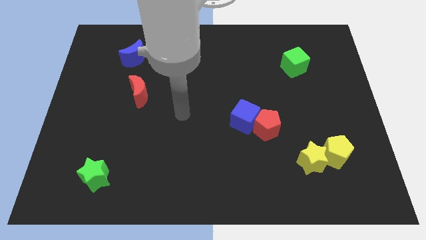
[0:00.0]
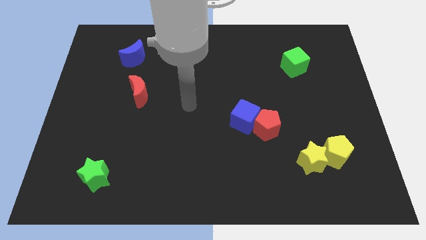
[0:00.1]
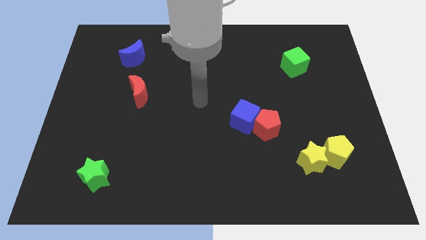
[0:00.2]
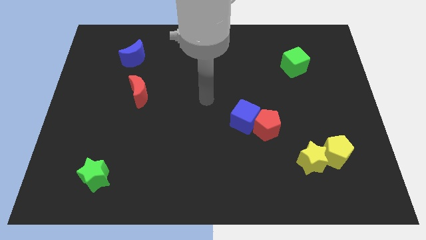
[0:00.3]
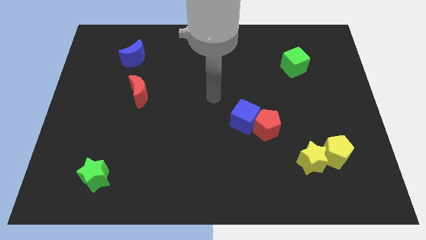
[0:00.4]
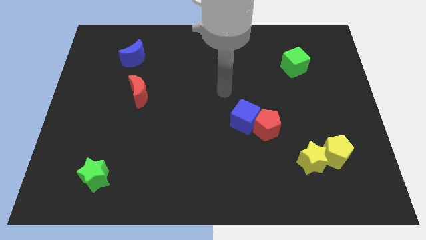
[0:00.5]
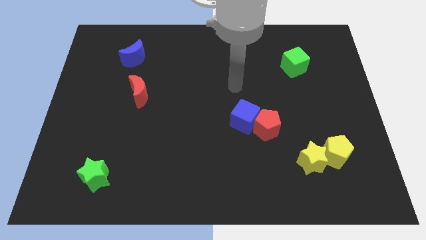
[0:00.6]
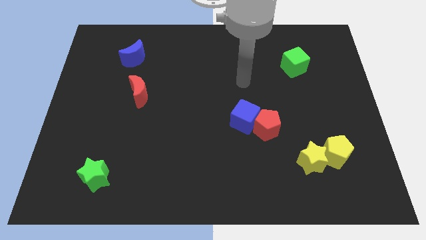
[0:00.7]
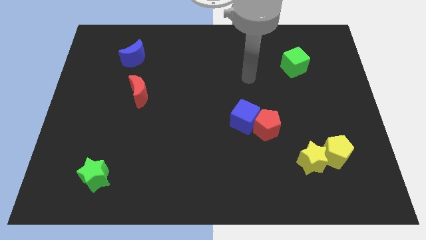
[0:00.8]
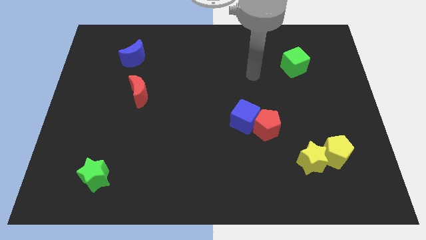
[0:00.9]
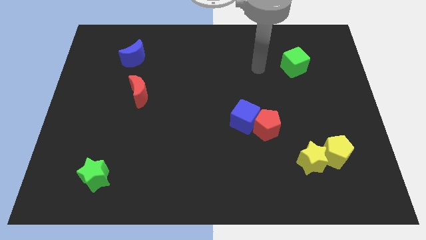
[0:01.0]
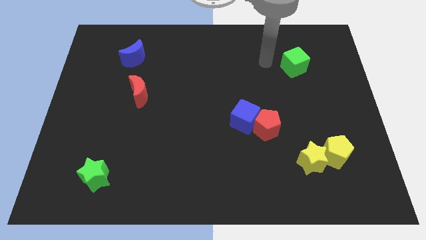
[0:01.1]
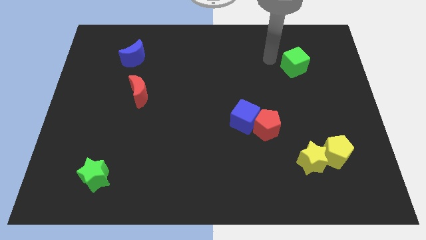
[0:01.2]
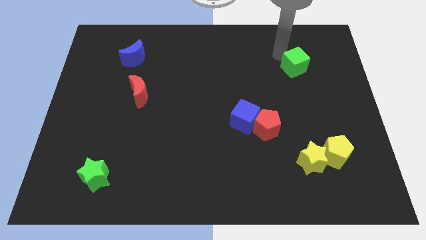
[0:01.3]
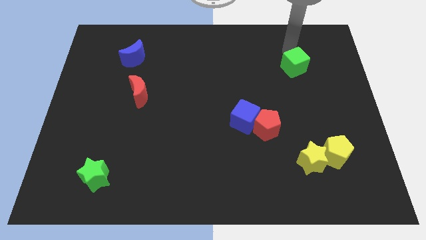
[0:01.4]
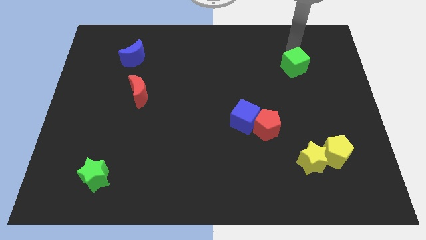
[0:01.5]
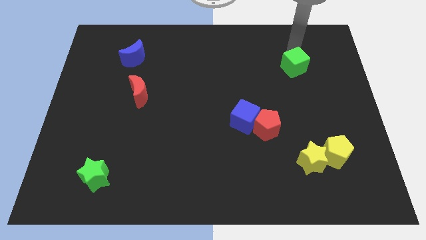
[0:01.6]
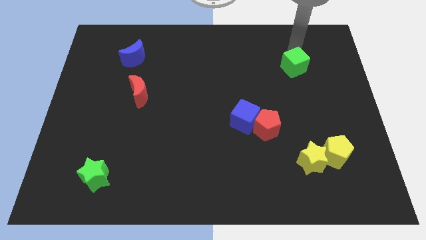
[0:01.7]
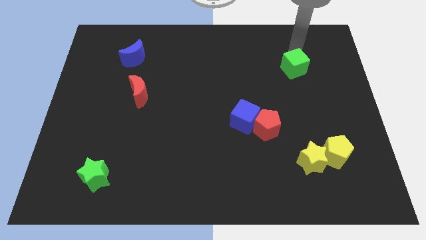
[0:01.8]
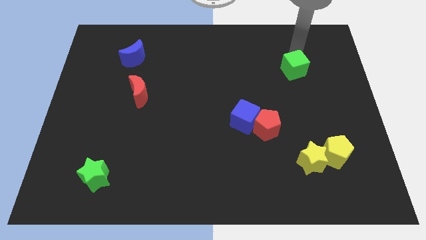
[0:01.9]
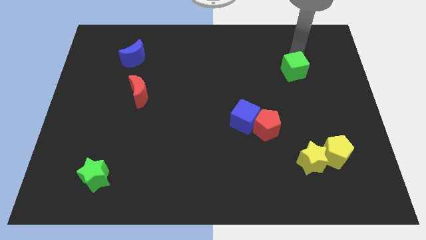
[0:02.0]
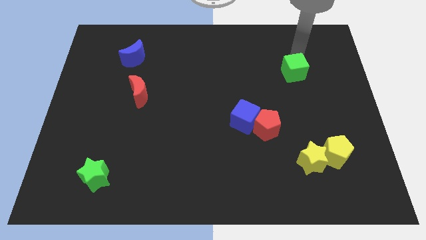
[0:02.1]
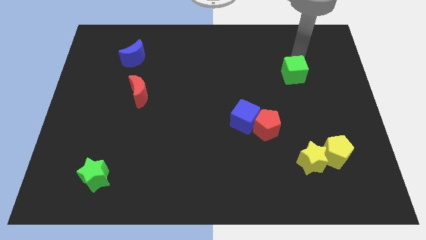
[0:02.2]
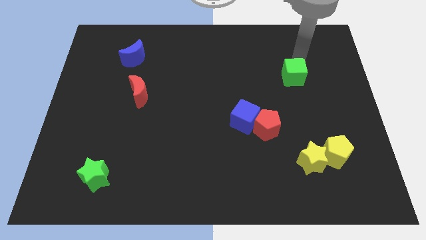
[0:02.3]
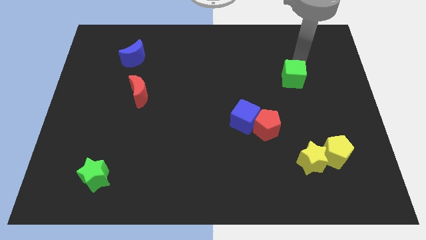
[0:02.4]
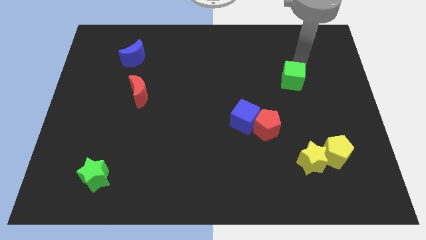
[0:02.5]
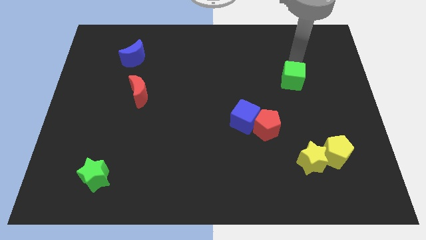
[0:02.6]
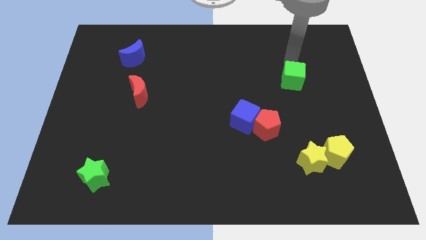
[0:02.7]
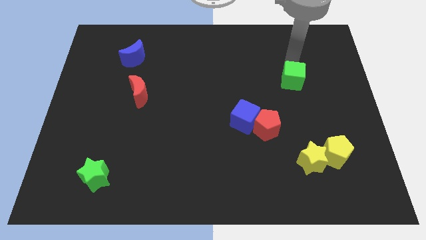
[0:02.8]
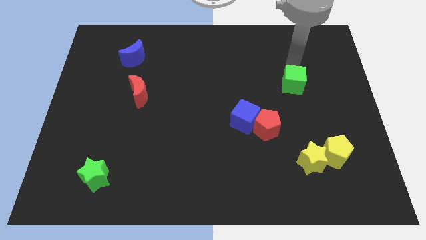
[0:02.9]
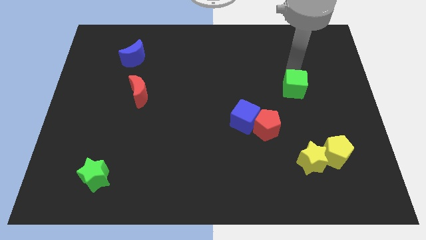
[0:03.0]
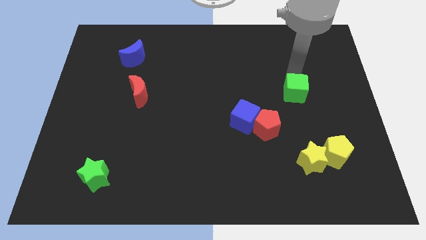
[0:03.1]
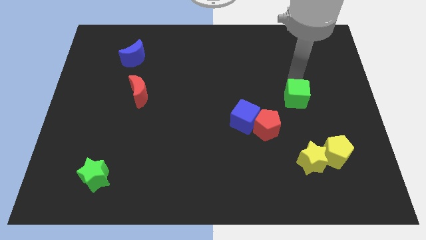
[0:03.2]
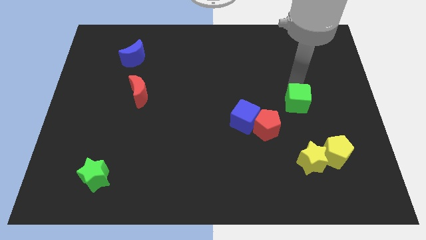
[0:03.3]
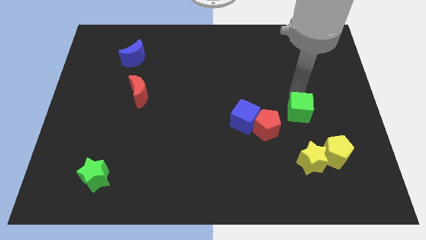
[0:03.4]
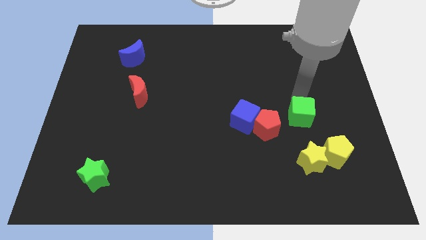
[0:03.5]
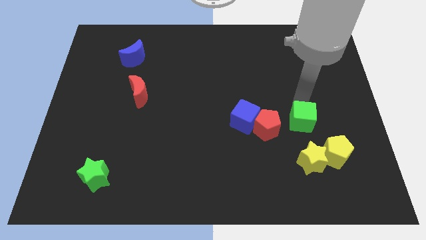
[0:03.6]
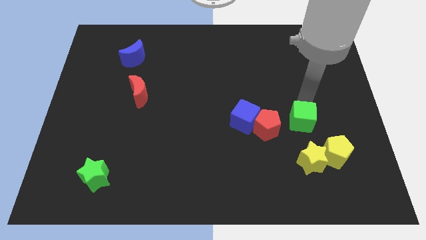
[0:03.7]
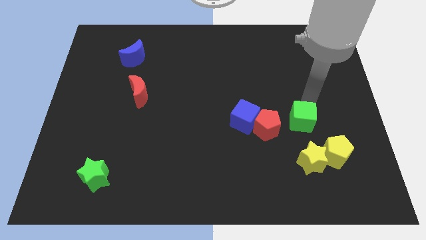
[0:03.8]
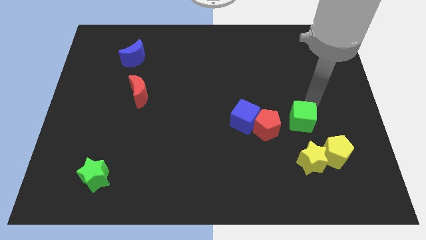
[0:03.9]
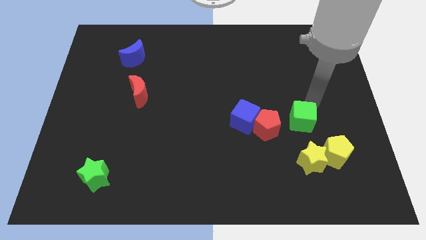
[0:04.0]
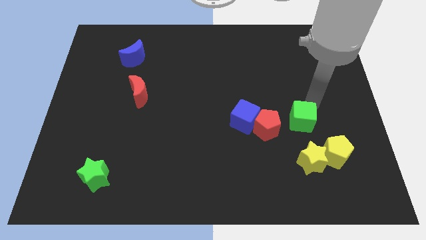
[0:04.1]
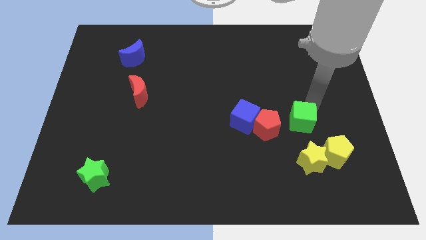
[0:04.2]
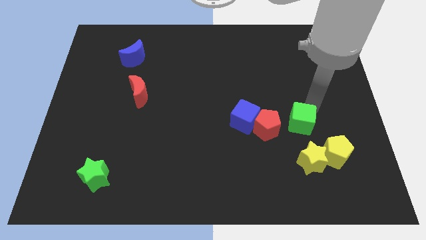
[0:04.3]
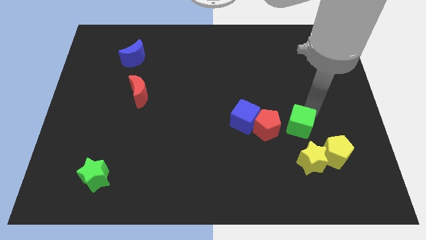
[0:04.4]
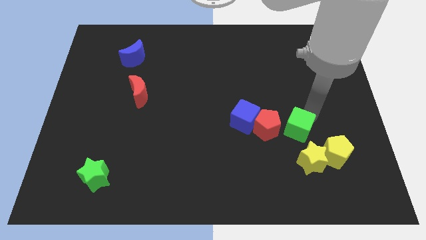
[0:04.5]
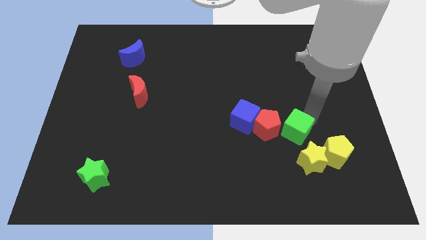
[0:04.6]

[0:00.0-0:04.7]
slide the green cube down

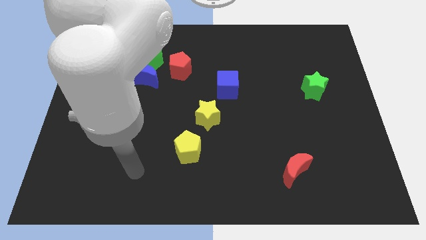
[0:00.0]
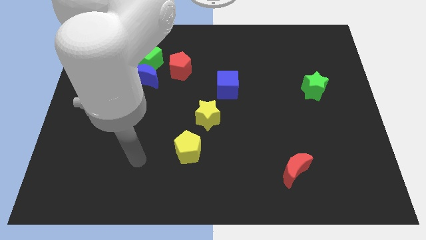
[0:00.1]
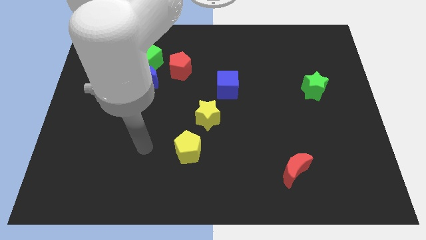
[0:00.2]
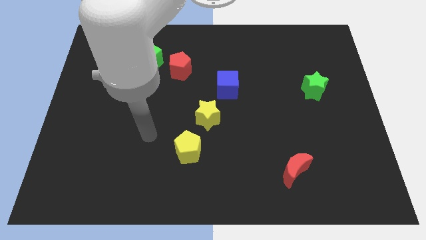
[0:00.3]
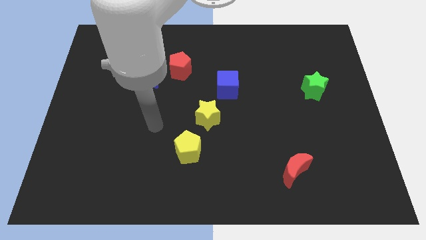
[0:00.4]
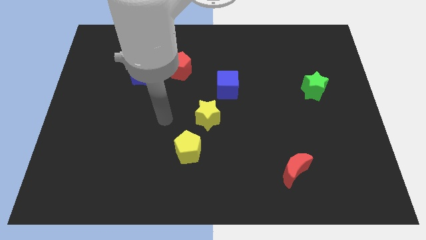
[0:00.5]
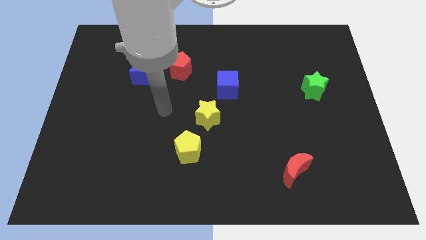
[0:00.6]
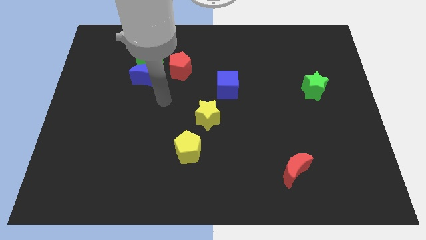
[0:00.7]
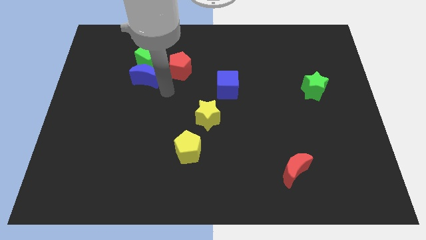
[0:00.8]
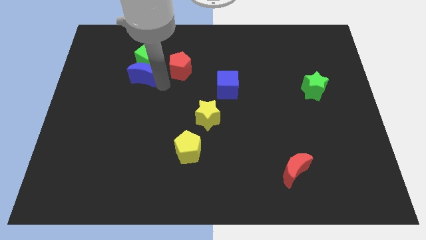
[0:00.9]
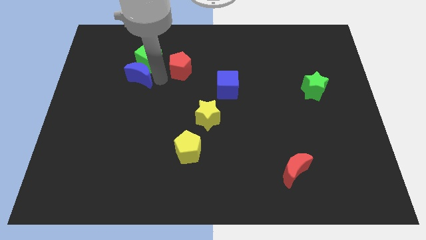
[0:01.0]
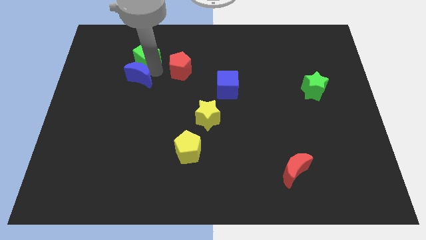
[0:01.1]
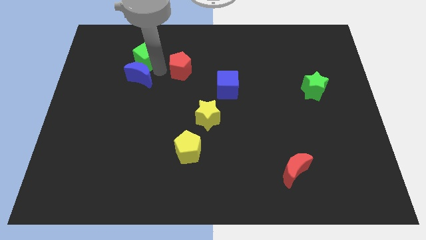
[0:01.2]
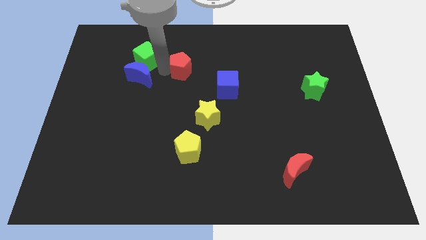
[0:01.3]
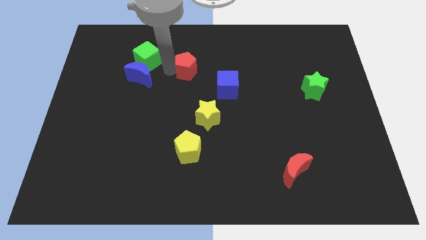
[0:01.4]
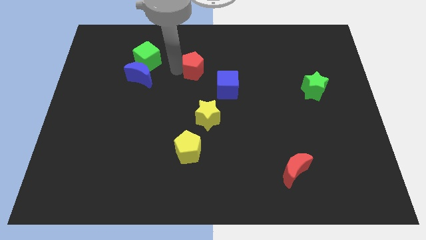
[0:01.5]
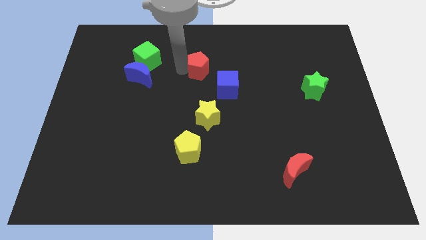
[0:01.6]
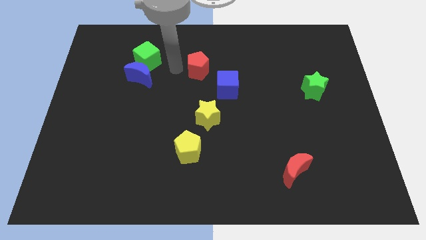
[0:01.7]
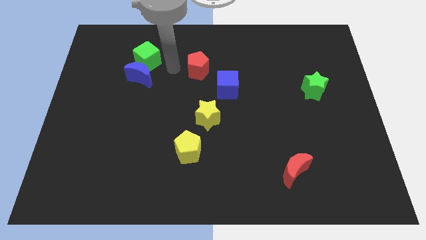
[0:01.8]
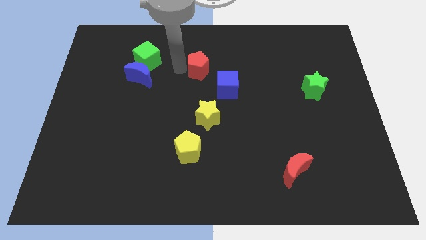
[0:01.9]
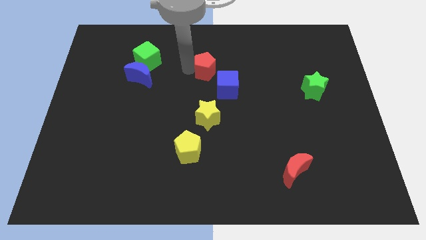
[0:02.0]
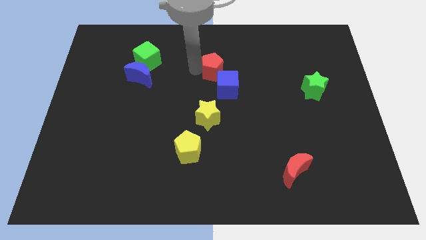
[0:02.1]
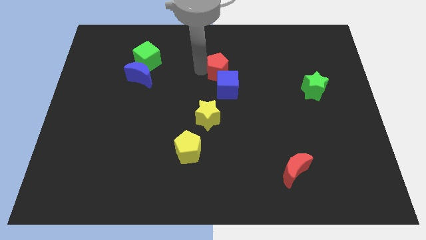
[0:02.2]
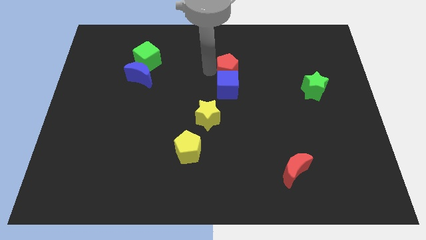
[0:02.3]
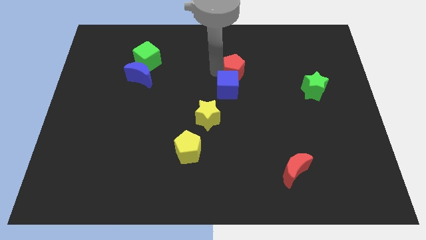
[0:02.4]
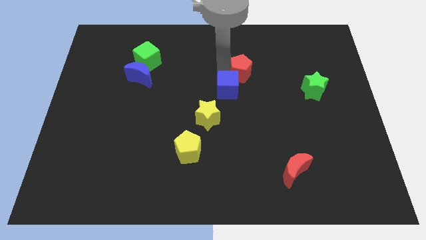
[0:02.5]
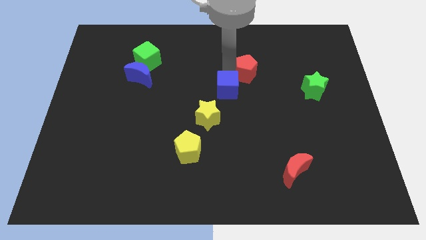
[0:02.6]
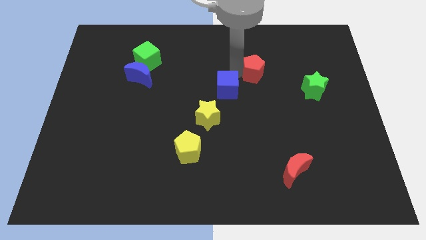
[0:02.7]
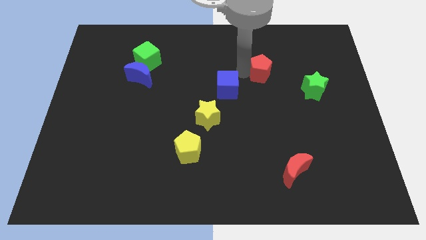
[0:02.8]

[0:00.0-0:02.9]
push the red pentagon to the right
